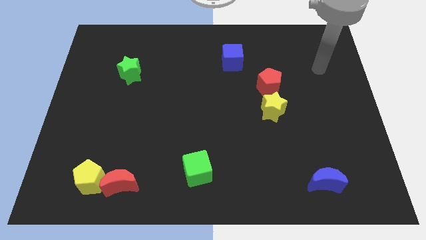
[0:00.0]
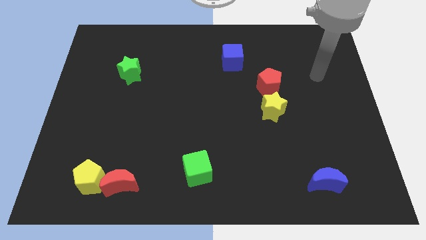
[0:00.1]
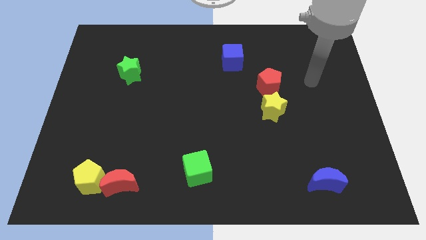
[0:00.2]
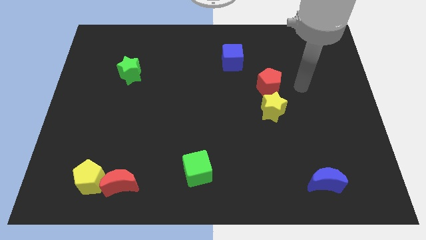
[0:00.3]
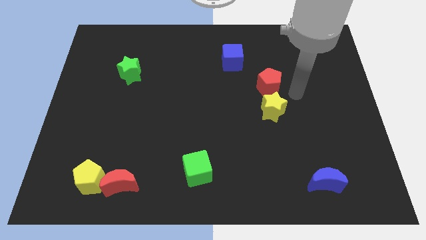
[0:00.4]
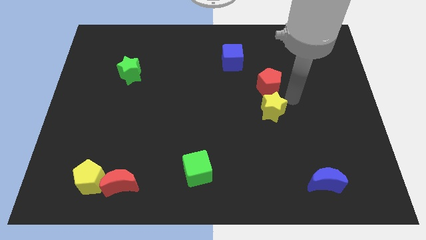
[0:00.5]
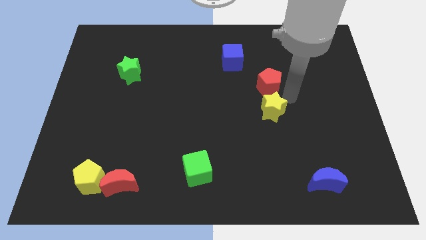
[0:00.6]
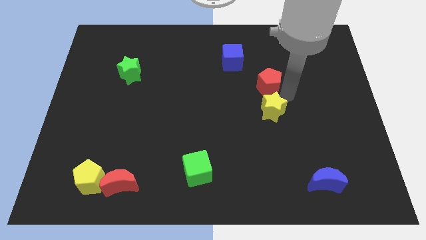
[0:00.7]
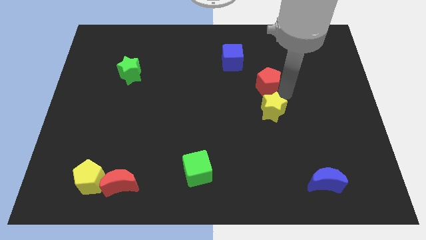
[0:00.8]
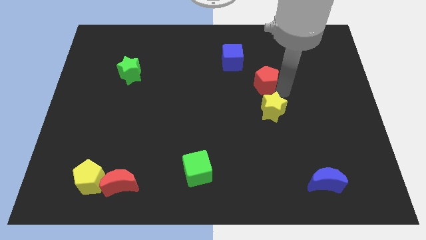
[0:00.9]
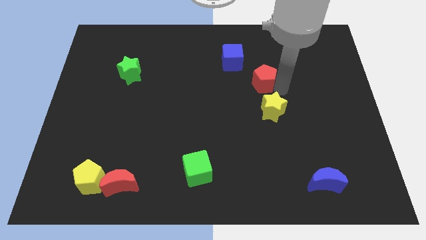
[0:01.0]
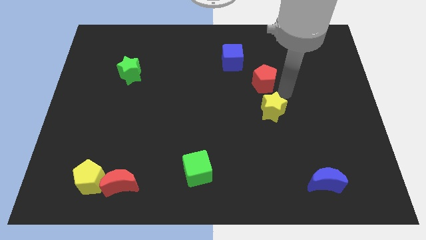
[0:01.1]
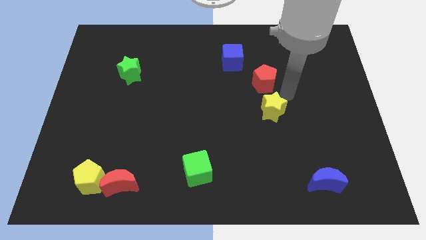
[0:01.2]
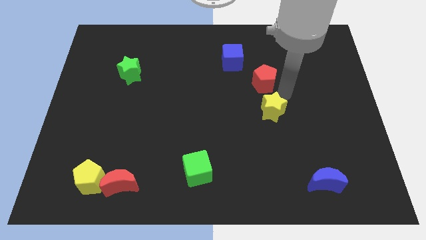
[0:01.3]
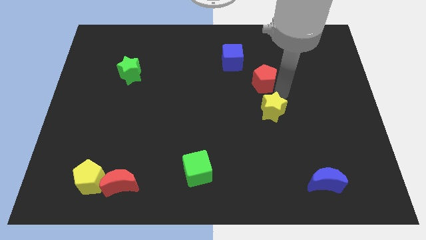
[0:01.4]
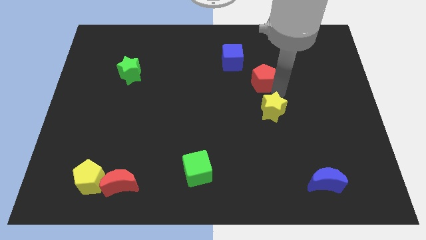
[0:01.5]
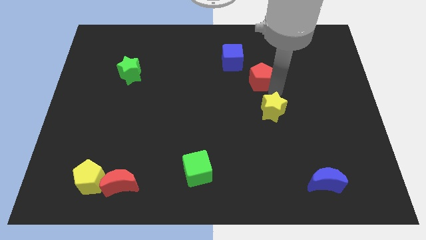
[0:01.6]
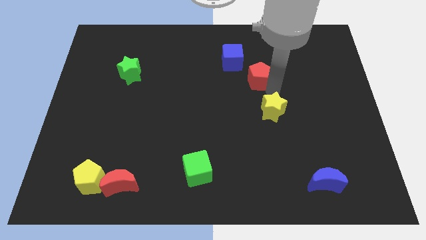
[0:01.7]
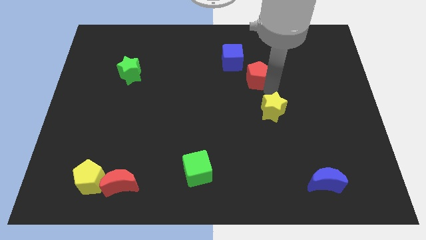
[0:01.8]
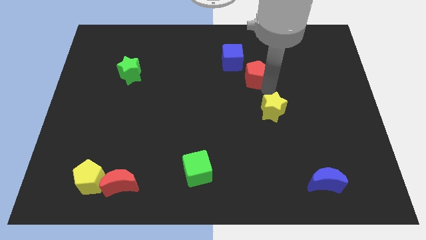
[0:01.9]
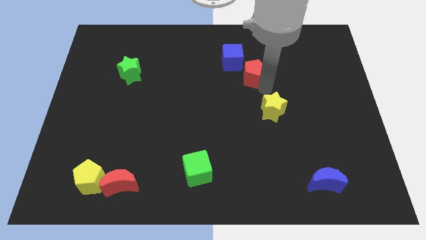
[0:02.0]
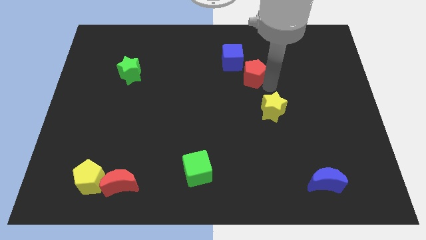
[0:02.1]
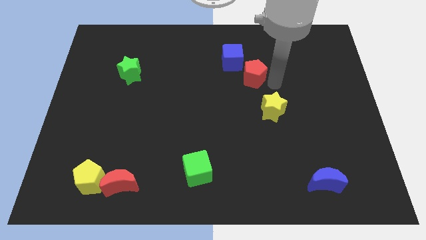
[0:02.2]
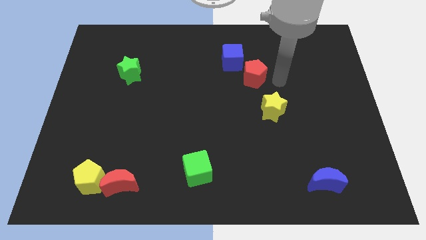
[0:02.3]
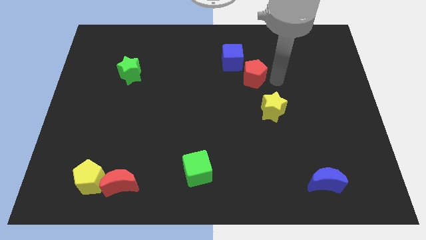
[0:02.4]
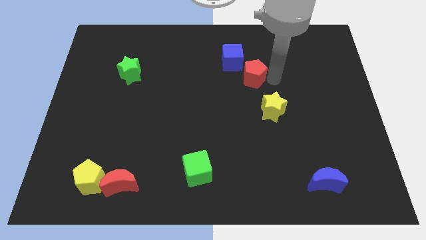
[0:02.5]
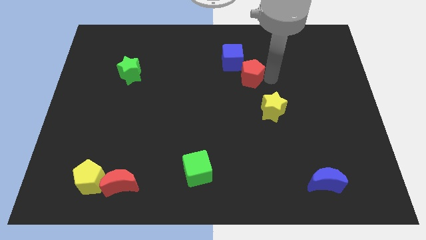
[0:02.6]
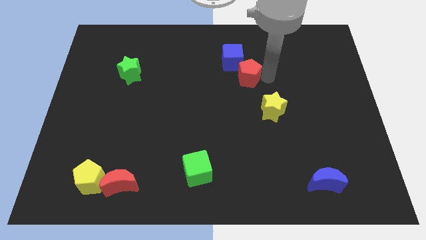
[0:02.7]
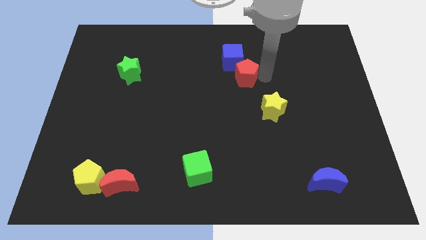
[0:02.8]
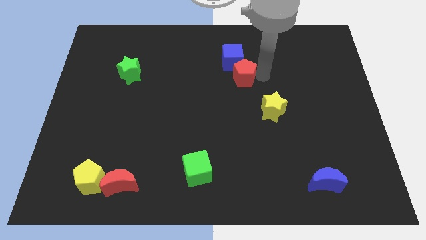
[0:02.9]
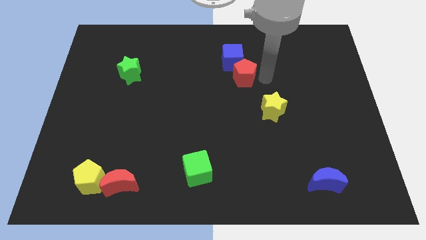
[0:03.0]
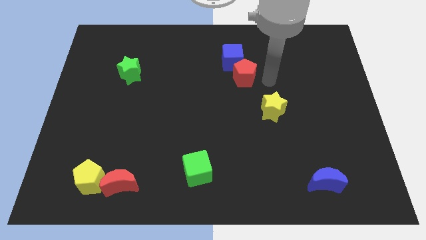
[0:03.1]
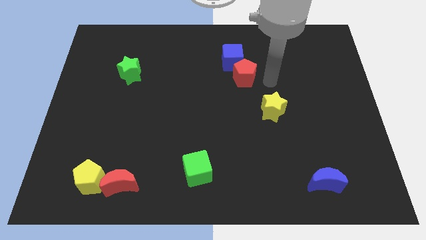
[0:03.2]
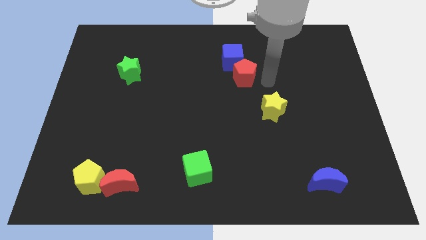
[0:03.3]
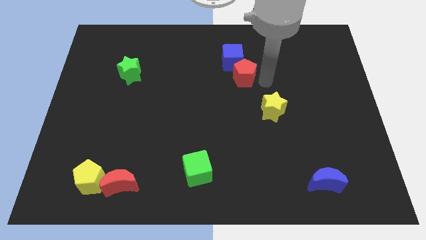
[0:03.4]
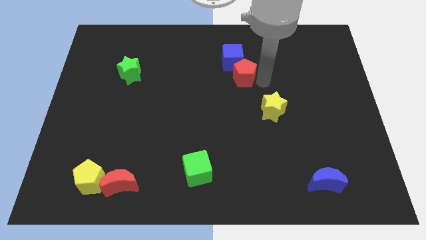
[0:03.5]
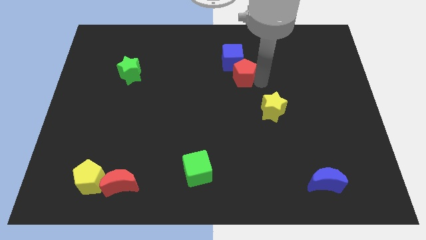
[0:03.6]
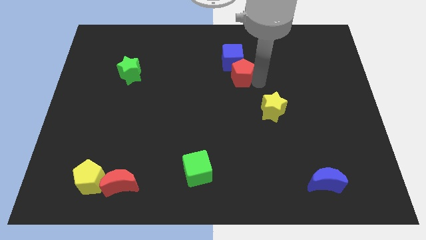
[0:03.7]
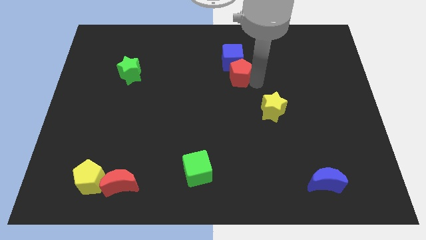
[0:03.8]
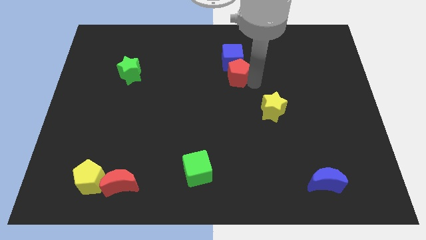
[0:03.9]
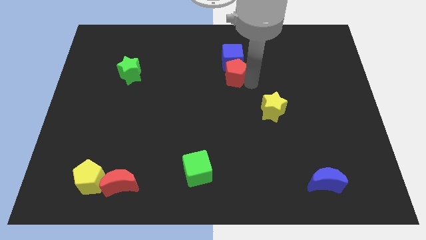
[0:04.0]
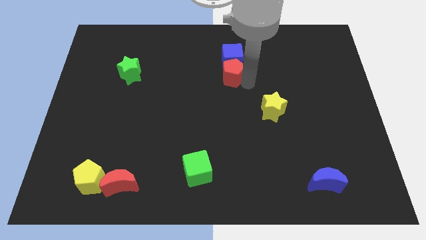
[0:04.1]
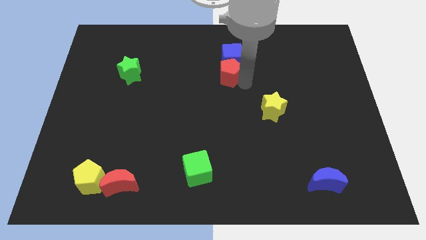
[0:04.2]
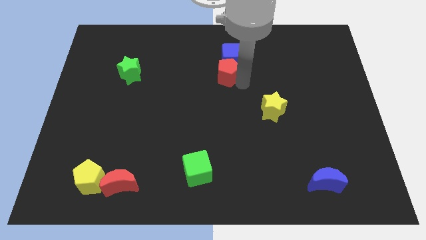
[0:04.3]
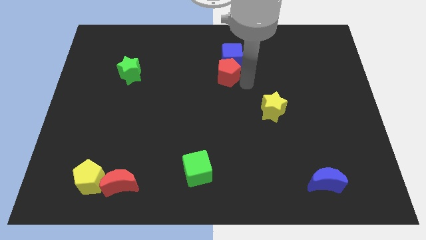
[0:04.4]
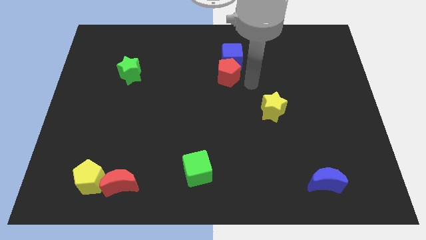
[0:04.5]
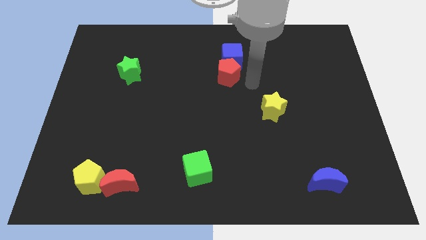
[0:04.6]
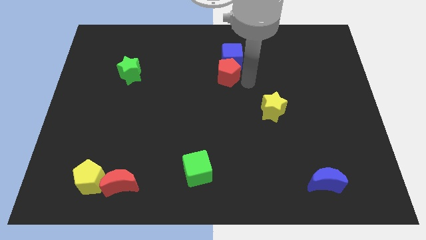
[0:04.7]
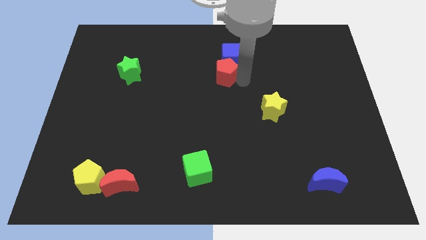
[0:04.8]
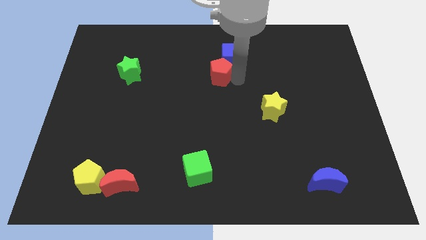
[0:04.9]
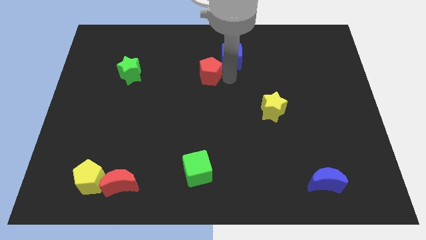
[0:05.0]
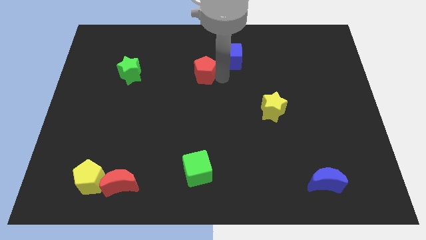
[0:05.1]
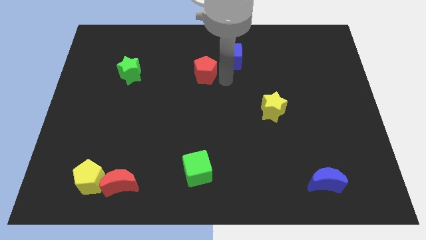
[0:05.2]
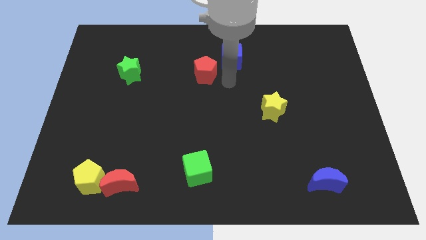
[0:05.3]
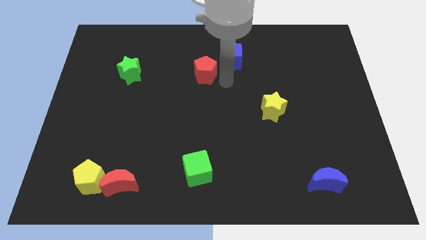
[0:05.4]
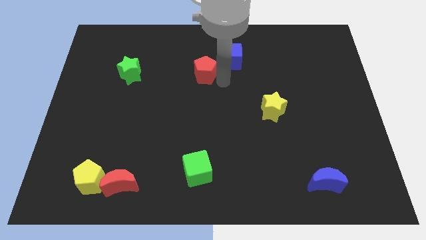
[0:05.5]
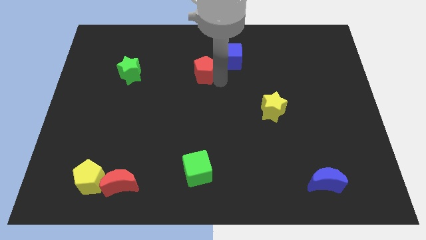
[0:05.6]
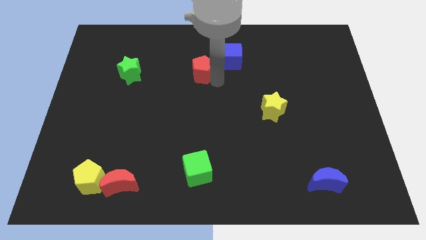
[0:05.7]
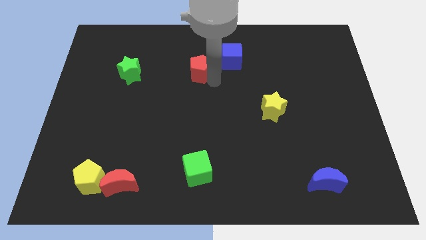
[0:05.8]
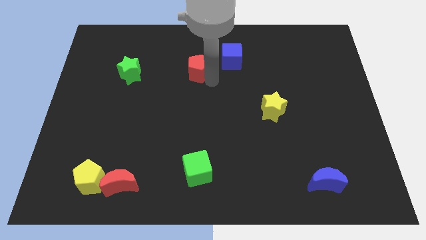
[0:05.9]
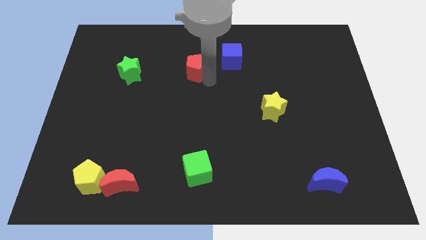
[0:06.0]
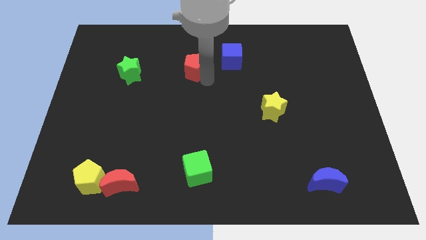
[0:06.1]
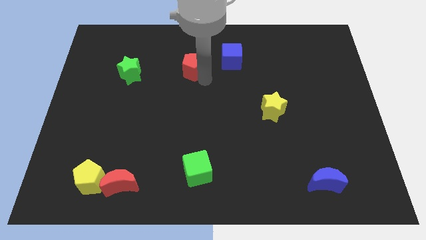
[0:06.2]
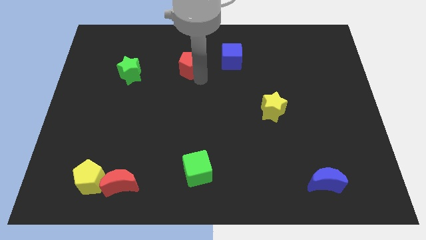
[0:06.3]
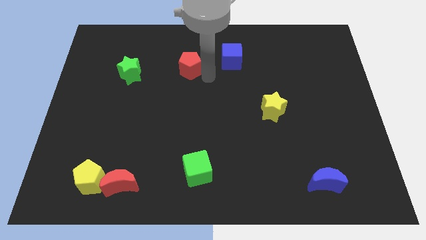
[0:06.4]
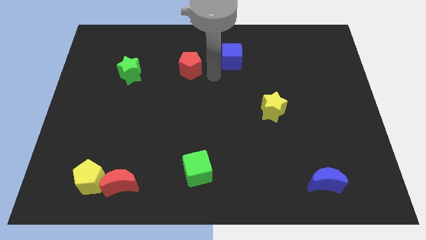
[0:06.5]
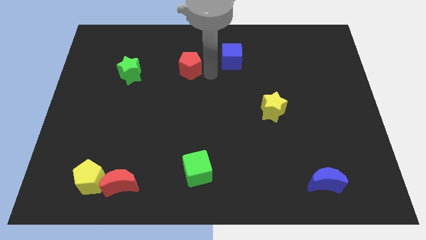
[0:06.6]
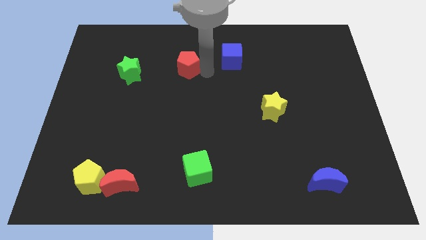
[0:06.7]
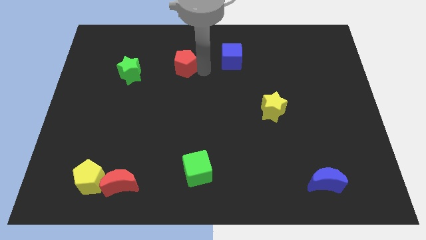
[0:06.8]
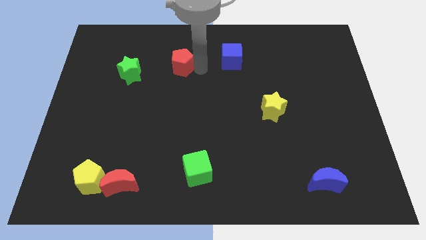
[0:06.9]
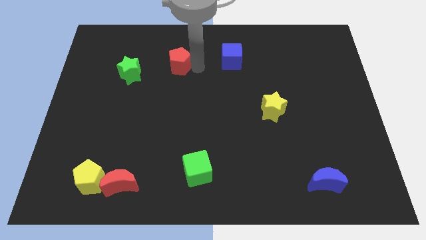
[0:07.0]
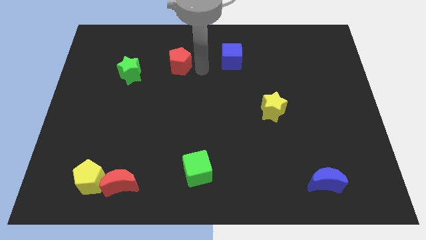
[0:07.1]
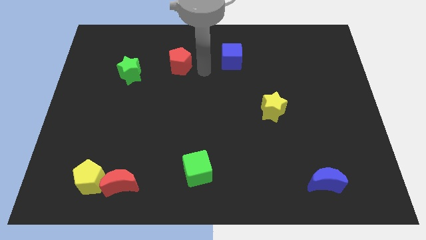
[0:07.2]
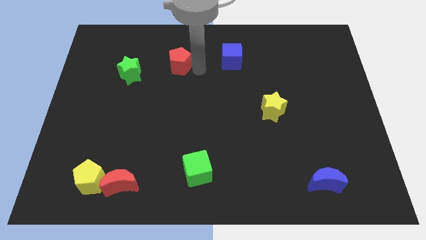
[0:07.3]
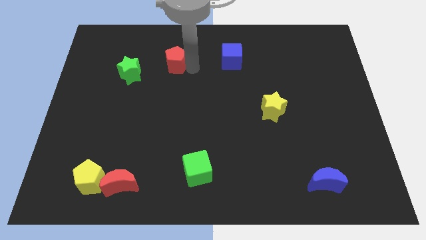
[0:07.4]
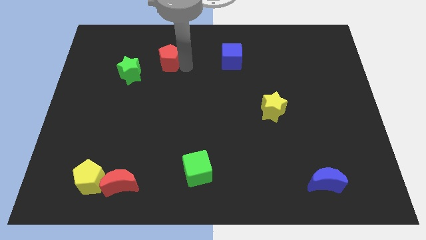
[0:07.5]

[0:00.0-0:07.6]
push the red pentagon to the top right side of the green star
